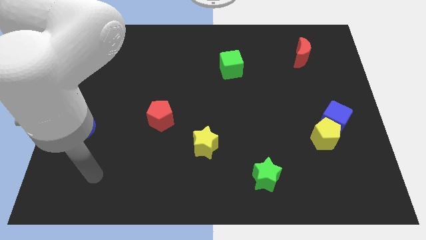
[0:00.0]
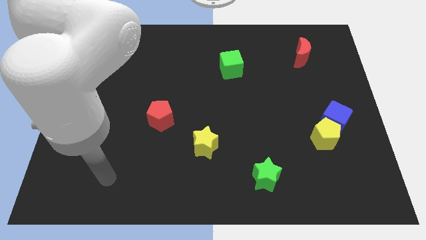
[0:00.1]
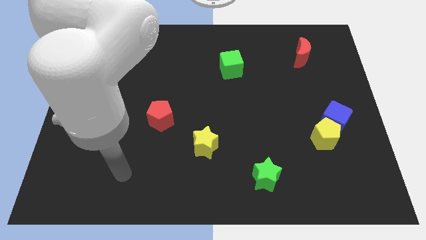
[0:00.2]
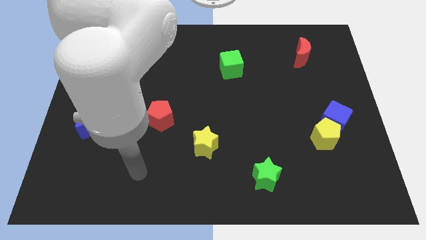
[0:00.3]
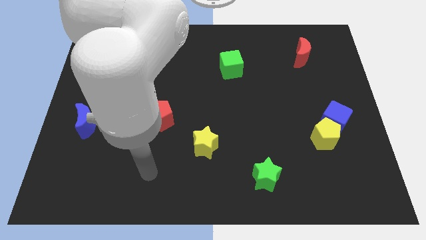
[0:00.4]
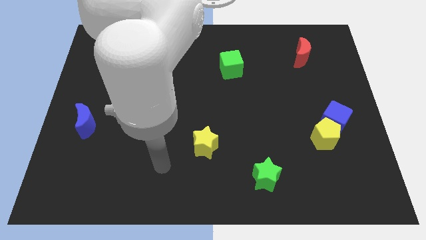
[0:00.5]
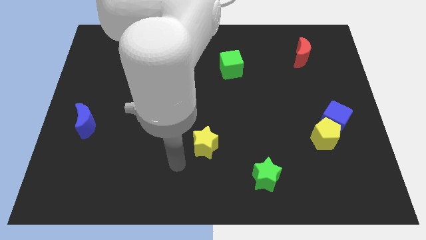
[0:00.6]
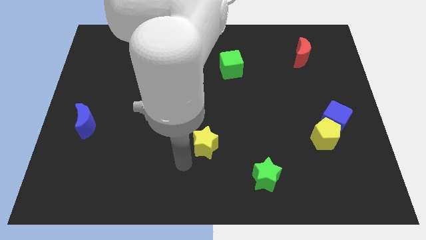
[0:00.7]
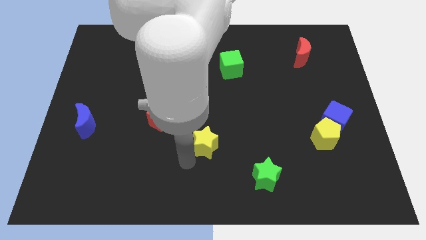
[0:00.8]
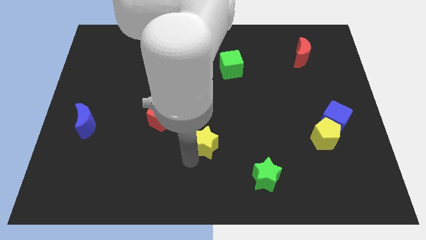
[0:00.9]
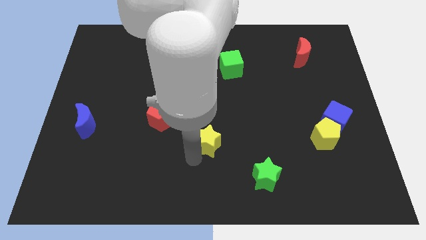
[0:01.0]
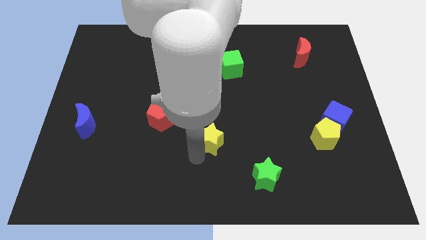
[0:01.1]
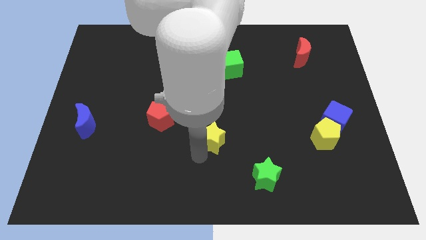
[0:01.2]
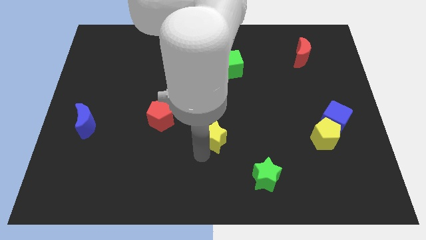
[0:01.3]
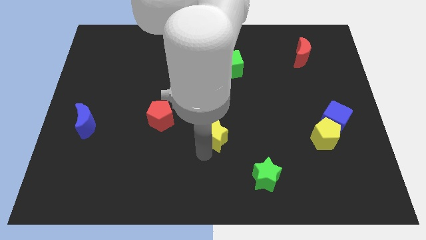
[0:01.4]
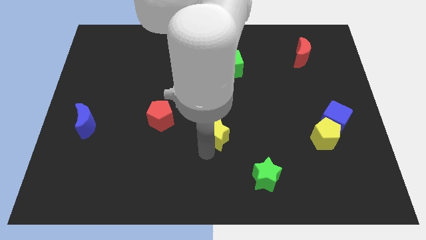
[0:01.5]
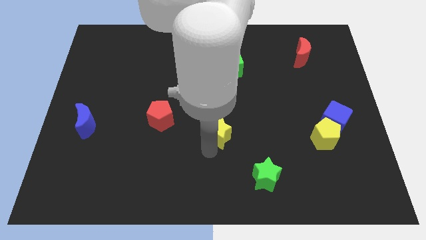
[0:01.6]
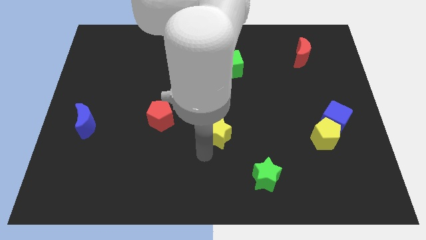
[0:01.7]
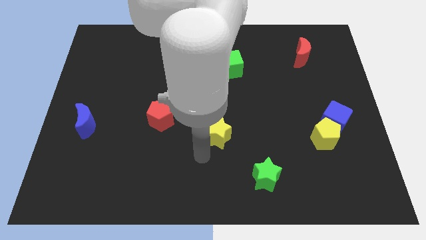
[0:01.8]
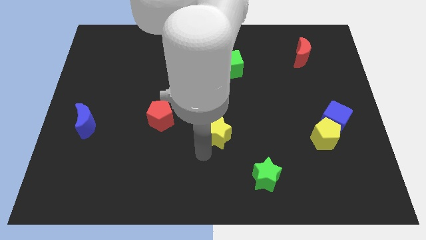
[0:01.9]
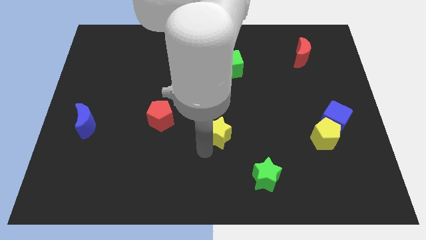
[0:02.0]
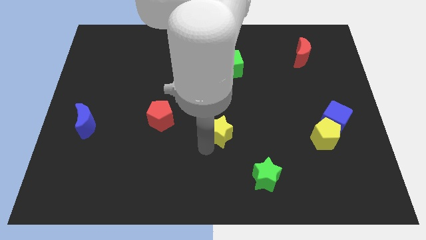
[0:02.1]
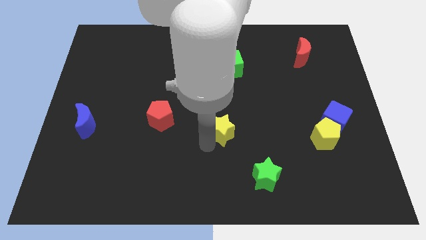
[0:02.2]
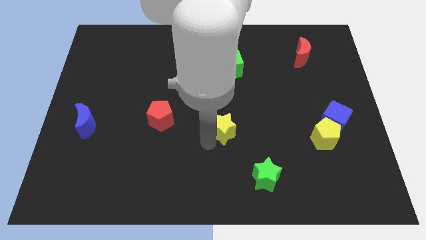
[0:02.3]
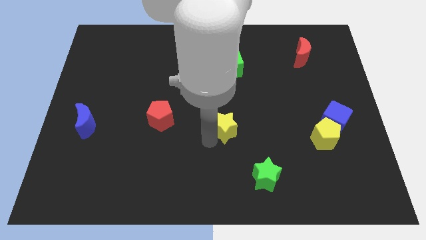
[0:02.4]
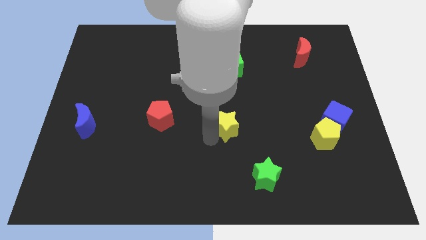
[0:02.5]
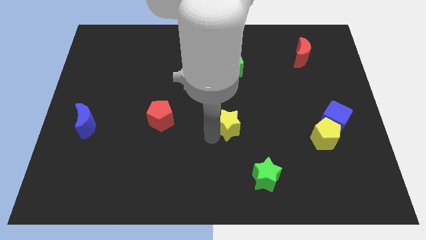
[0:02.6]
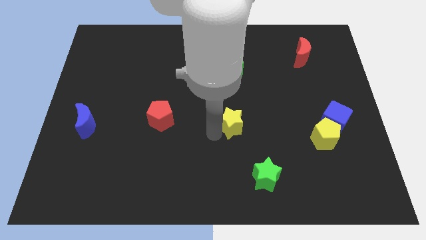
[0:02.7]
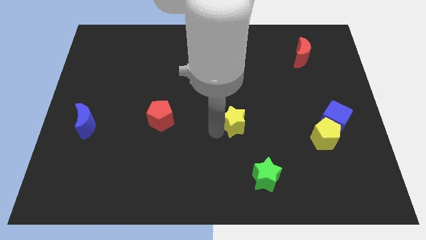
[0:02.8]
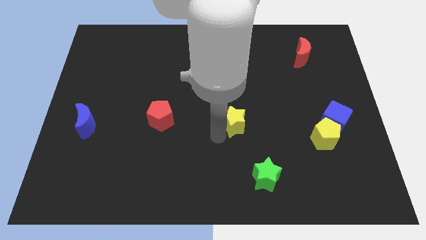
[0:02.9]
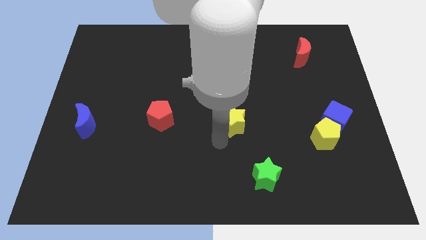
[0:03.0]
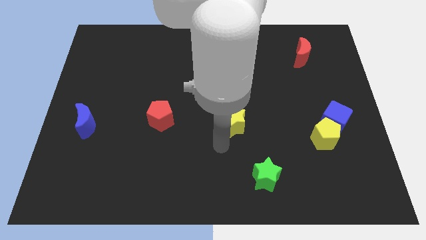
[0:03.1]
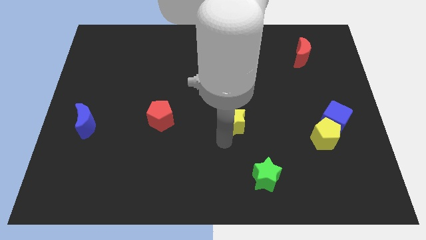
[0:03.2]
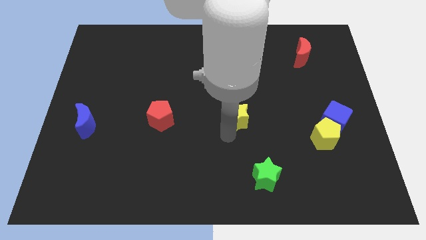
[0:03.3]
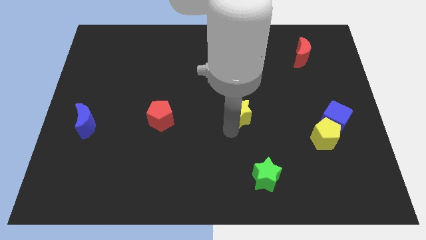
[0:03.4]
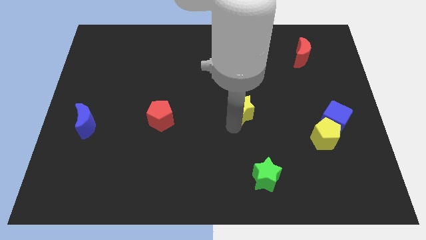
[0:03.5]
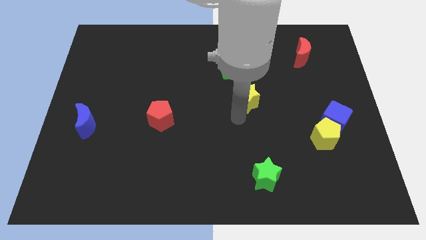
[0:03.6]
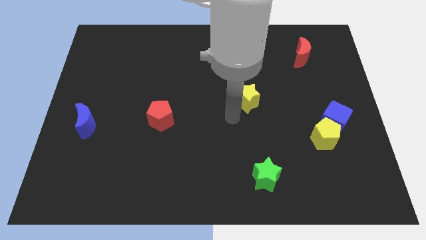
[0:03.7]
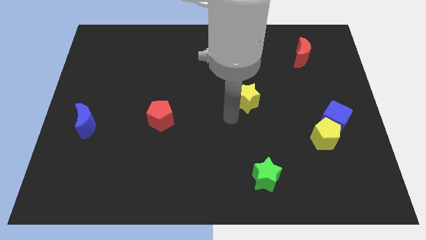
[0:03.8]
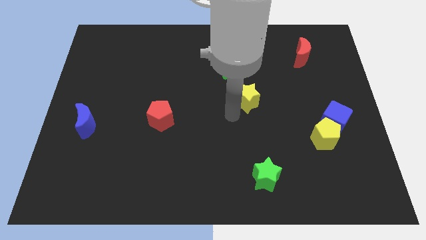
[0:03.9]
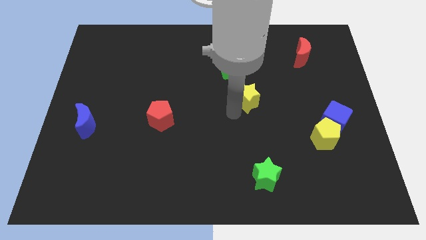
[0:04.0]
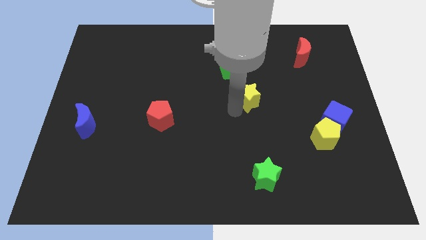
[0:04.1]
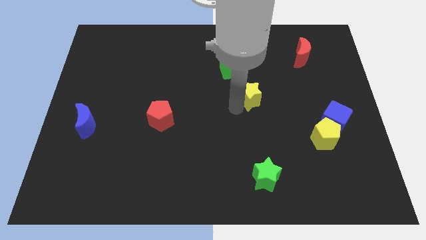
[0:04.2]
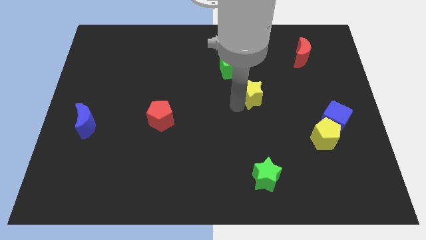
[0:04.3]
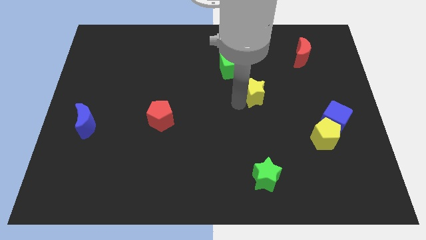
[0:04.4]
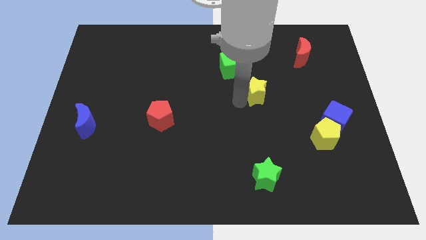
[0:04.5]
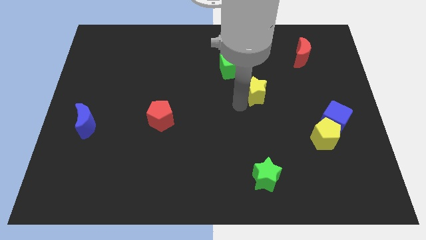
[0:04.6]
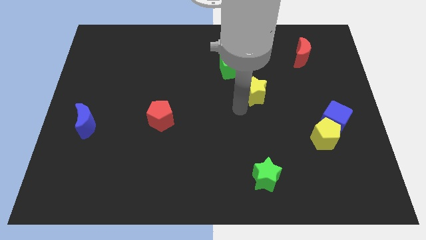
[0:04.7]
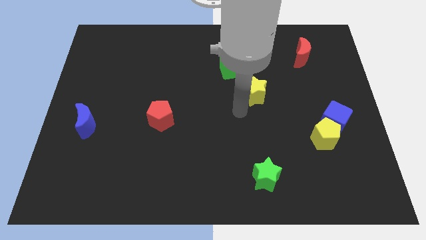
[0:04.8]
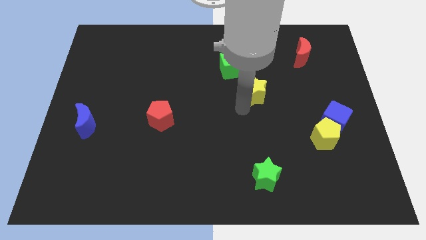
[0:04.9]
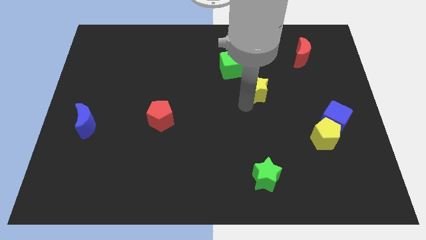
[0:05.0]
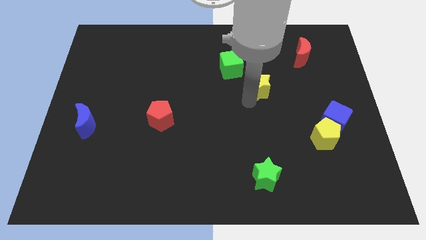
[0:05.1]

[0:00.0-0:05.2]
slide the yellow star up and right diagonally

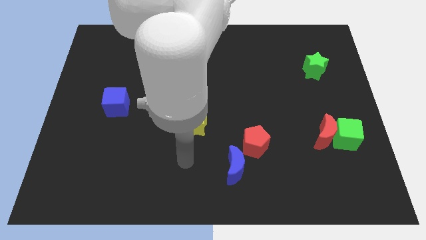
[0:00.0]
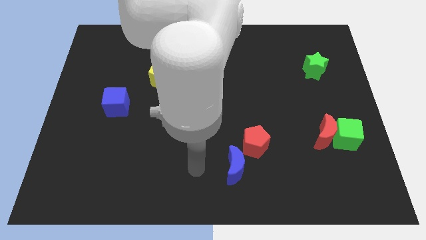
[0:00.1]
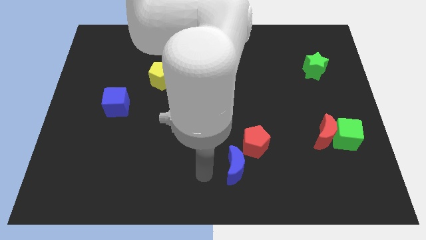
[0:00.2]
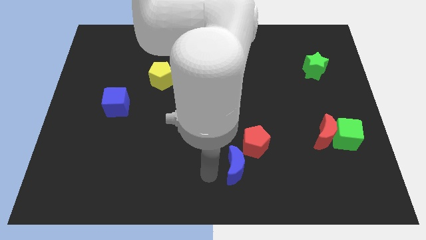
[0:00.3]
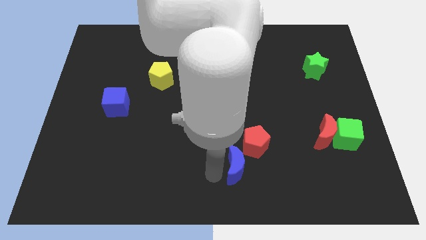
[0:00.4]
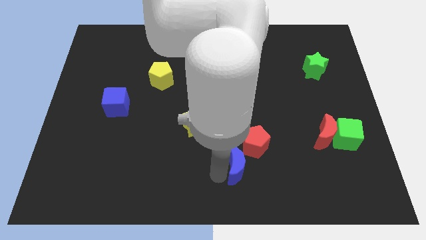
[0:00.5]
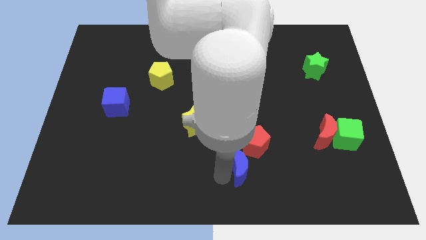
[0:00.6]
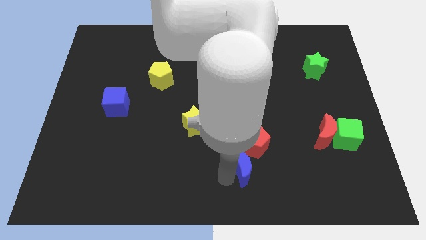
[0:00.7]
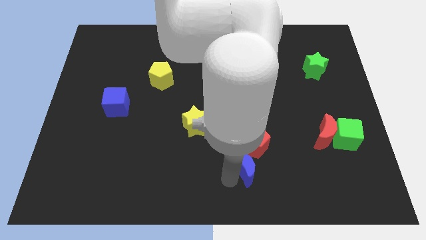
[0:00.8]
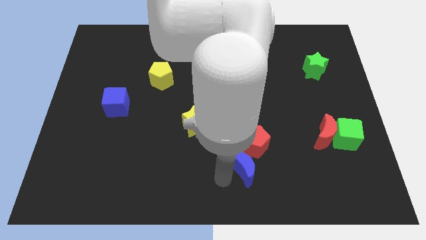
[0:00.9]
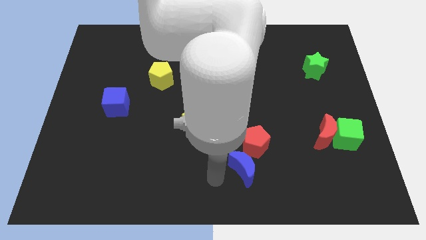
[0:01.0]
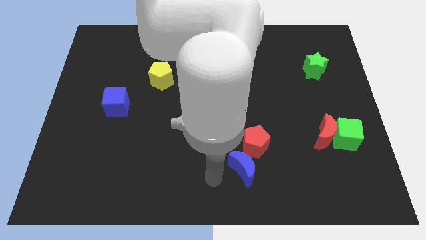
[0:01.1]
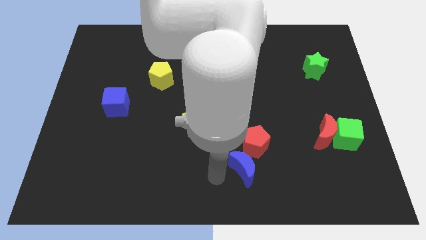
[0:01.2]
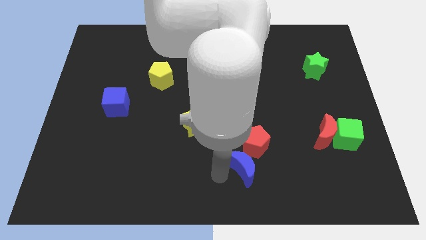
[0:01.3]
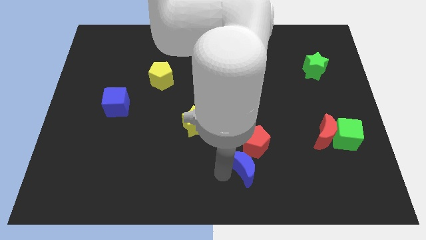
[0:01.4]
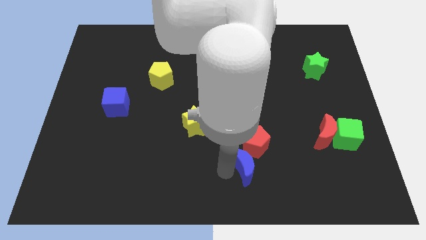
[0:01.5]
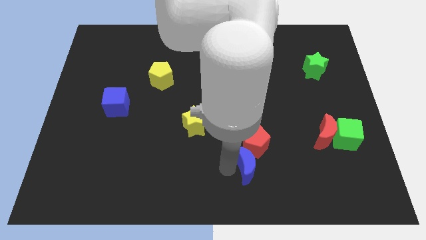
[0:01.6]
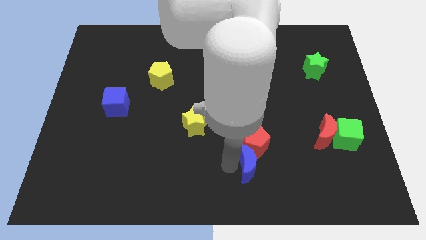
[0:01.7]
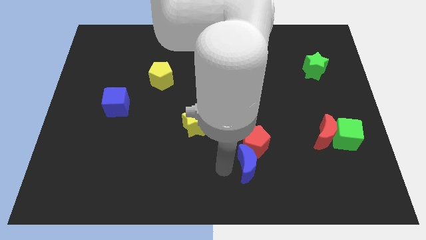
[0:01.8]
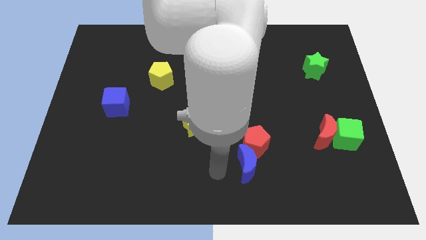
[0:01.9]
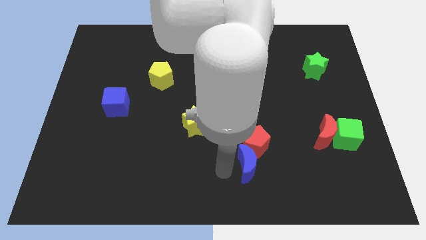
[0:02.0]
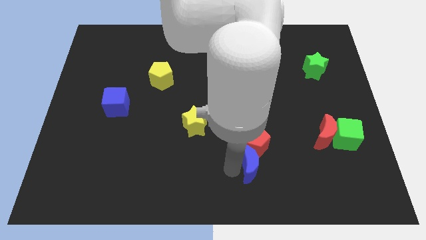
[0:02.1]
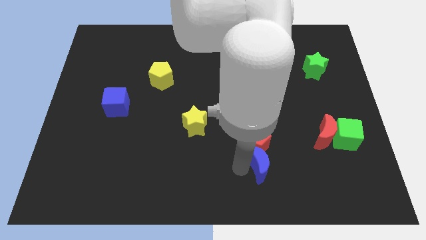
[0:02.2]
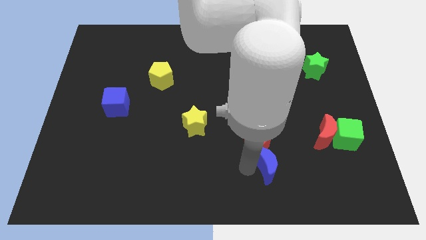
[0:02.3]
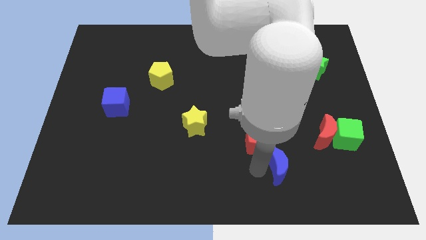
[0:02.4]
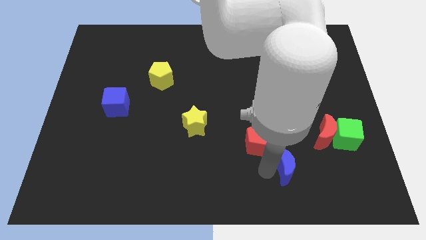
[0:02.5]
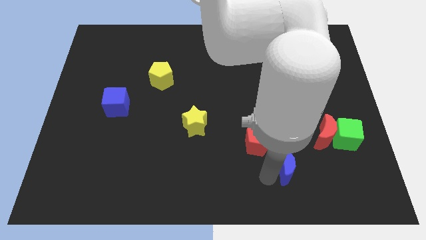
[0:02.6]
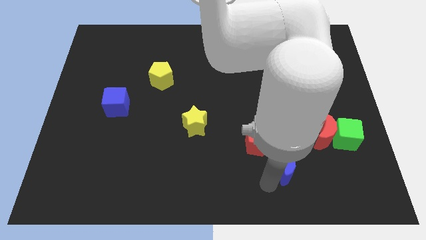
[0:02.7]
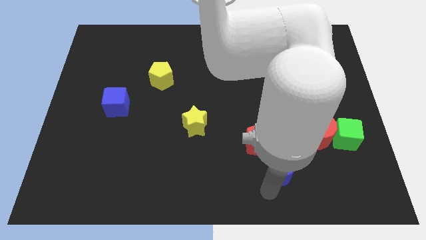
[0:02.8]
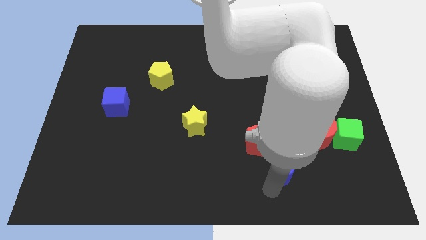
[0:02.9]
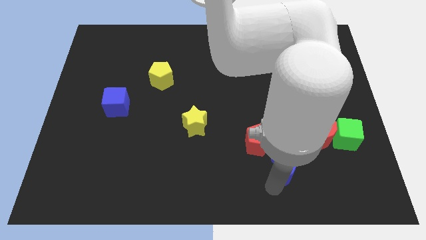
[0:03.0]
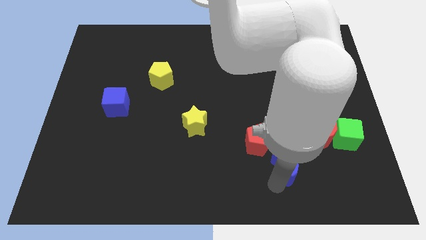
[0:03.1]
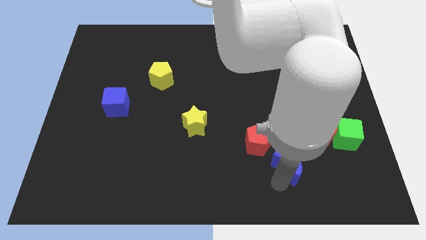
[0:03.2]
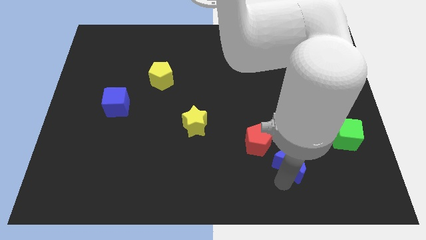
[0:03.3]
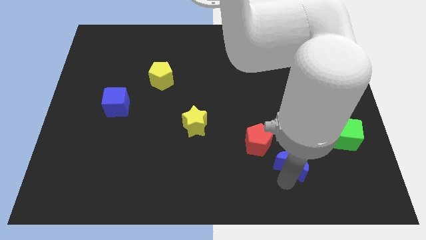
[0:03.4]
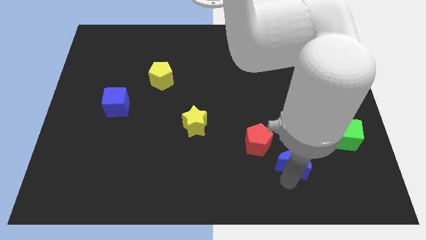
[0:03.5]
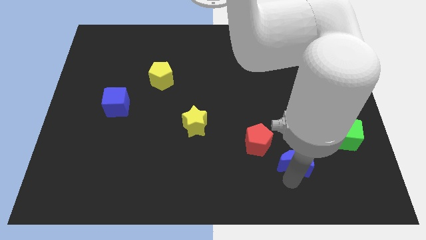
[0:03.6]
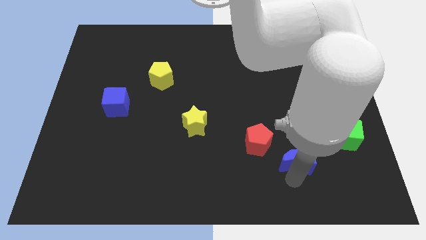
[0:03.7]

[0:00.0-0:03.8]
move the blue moon a little upwards and then right
